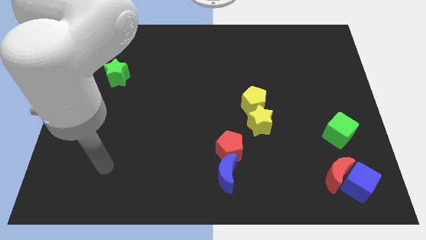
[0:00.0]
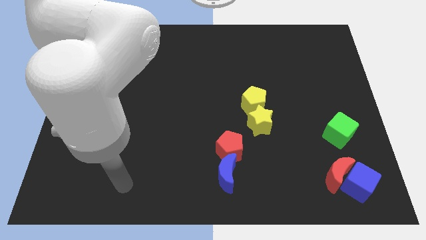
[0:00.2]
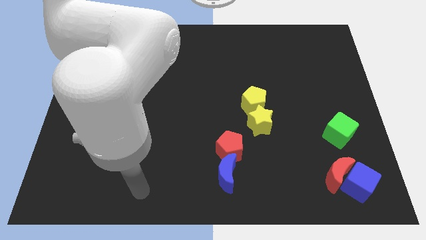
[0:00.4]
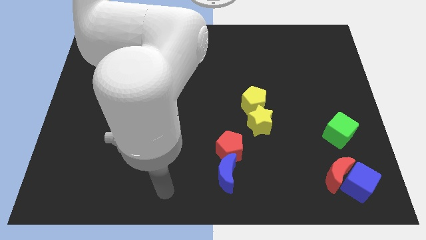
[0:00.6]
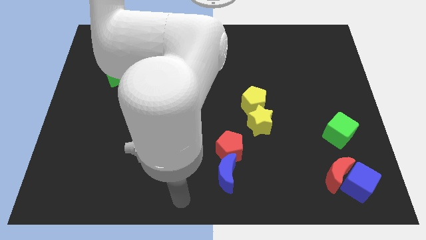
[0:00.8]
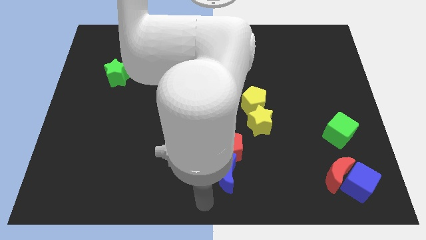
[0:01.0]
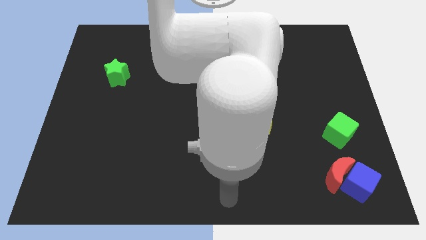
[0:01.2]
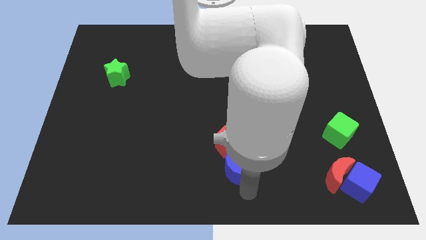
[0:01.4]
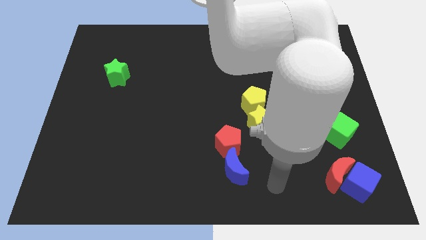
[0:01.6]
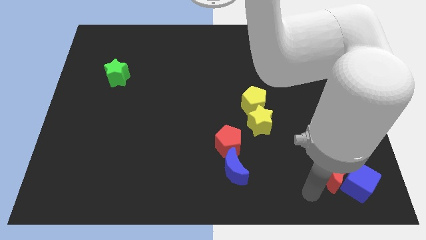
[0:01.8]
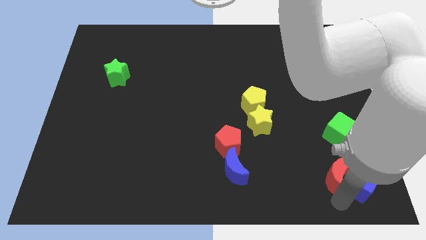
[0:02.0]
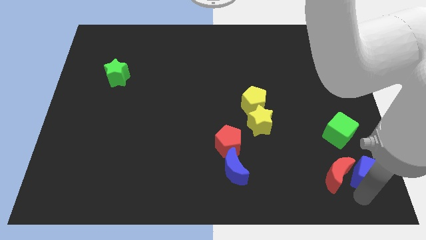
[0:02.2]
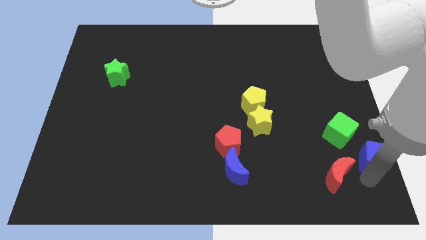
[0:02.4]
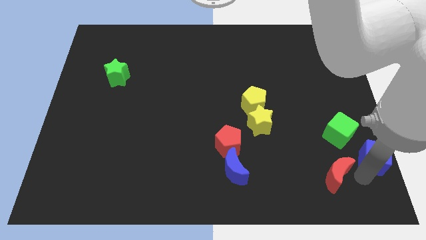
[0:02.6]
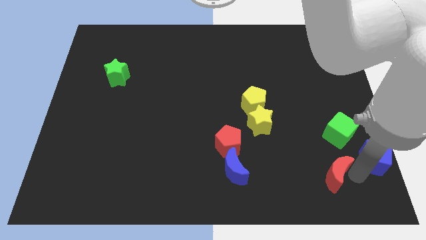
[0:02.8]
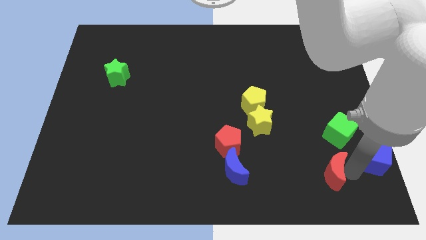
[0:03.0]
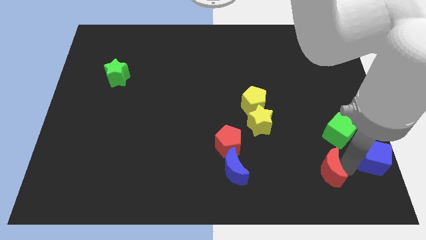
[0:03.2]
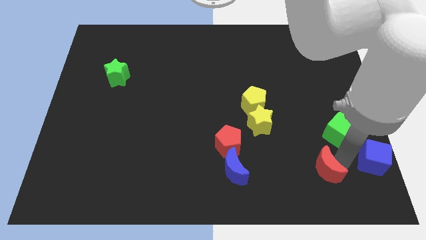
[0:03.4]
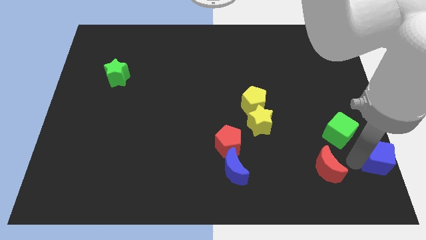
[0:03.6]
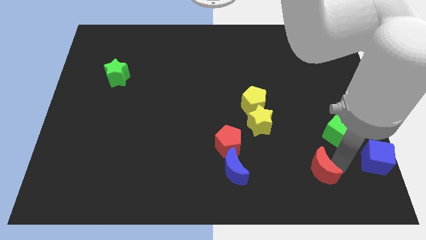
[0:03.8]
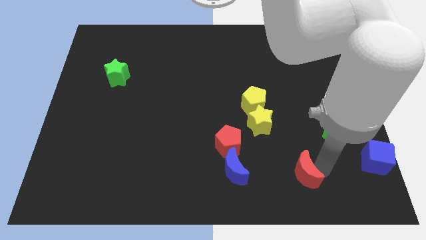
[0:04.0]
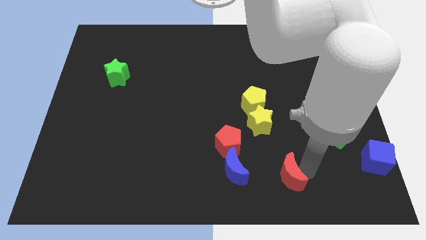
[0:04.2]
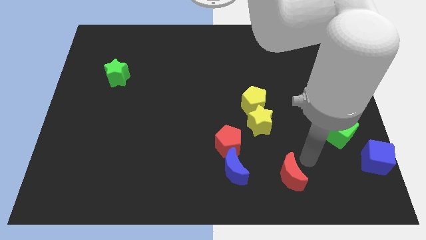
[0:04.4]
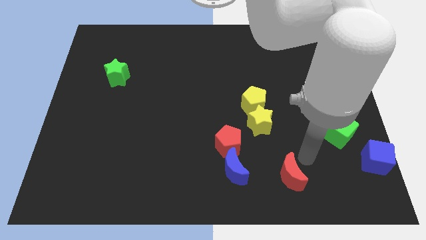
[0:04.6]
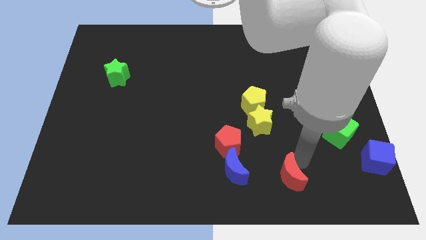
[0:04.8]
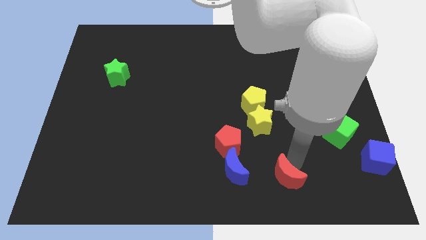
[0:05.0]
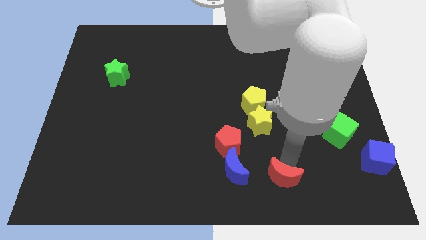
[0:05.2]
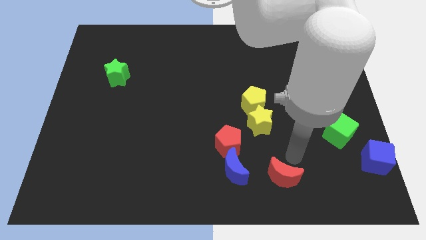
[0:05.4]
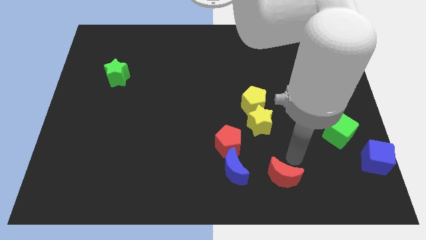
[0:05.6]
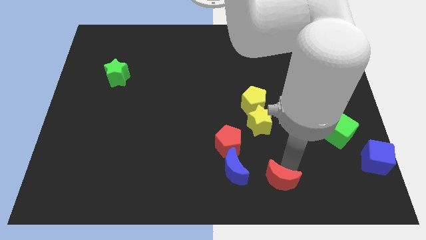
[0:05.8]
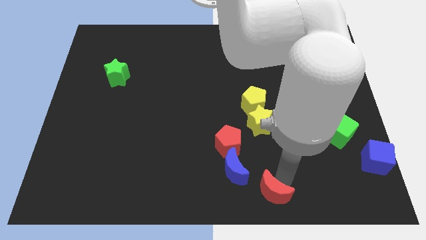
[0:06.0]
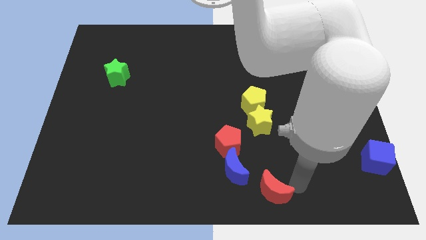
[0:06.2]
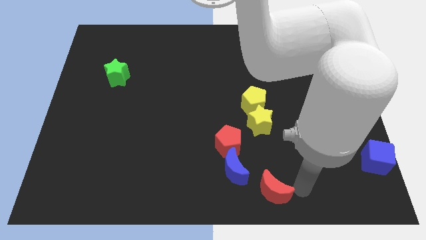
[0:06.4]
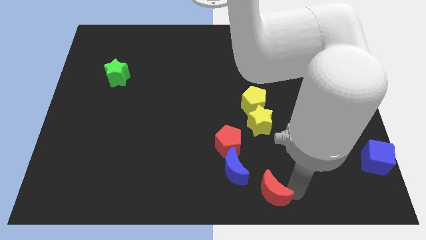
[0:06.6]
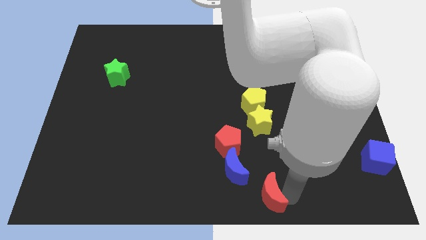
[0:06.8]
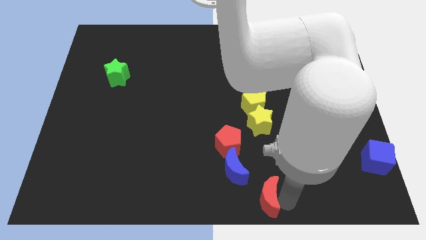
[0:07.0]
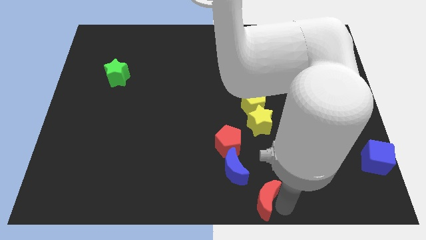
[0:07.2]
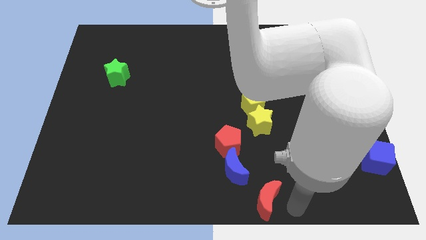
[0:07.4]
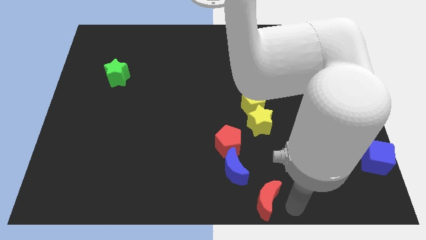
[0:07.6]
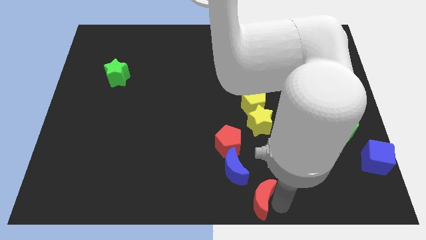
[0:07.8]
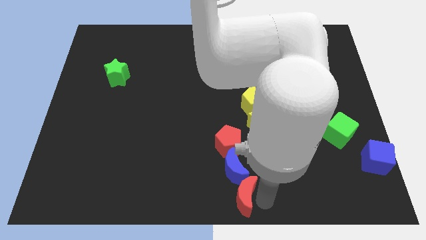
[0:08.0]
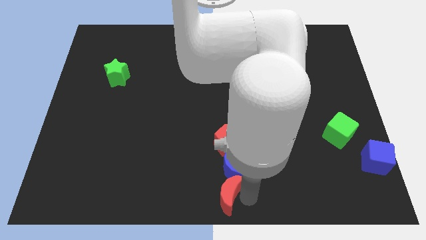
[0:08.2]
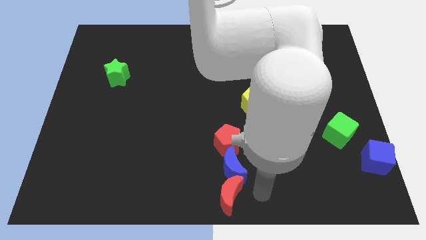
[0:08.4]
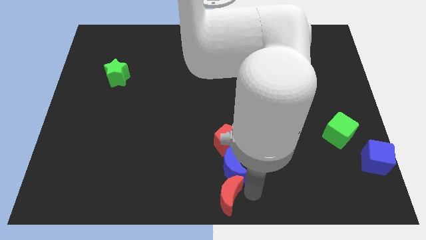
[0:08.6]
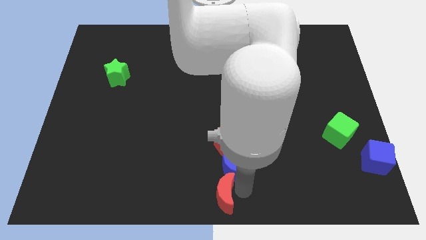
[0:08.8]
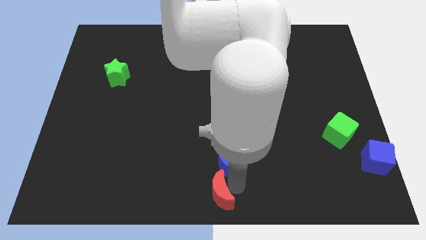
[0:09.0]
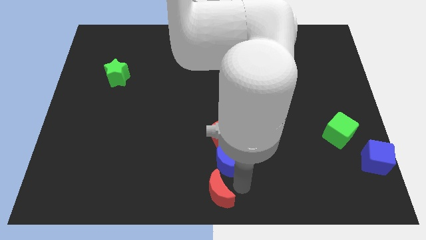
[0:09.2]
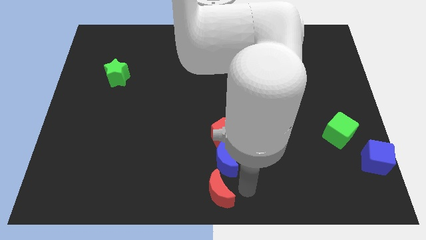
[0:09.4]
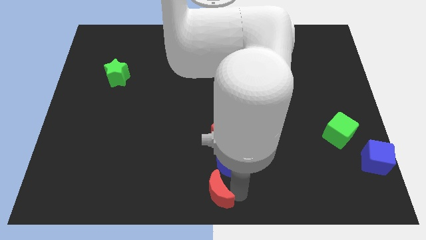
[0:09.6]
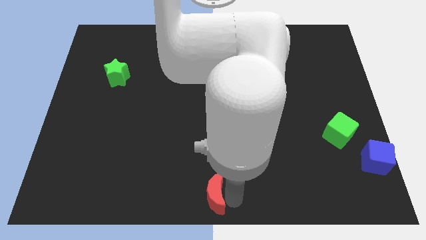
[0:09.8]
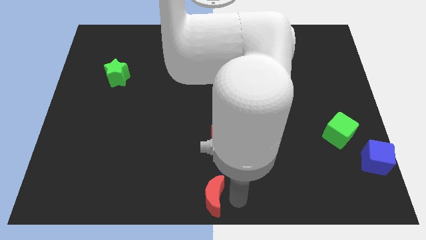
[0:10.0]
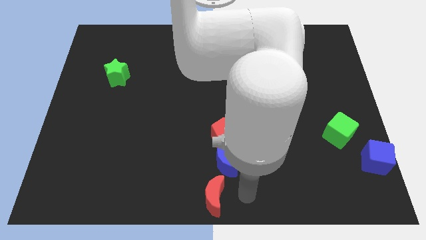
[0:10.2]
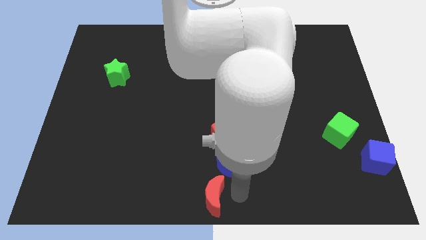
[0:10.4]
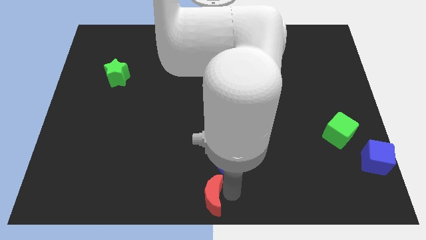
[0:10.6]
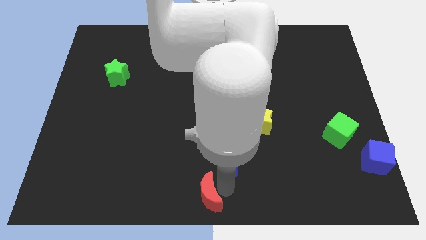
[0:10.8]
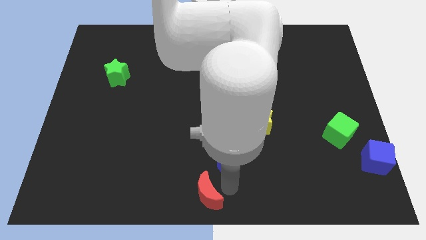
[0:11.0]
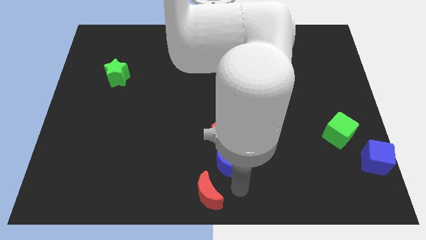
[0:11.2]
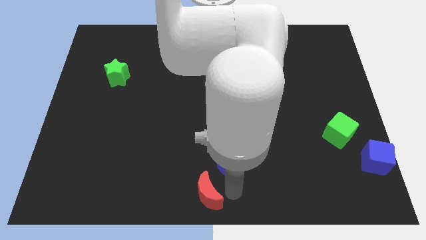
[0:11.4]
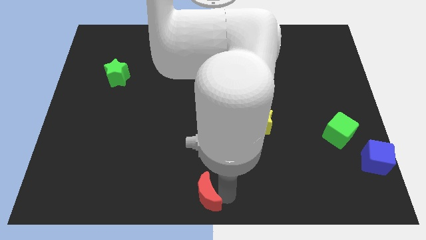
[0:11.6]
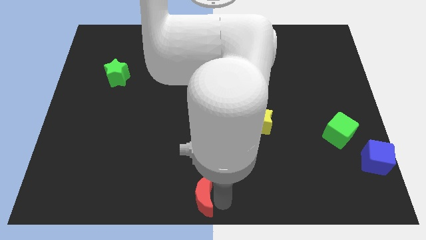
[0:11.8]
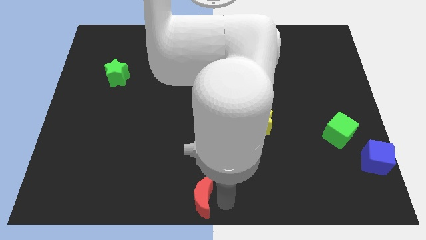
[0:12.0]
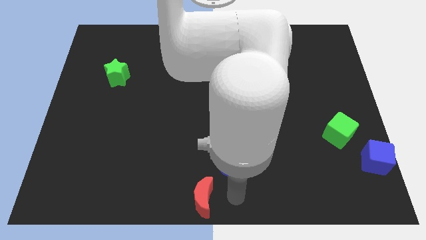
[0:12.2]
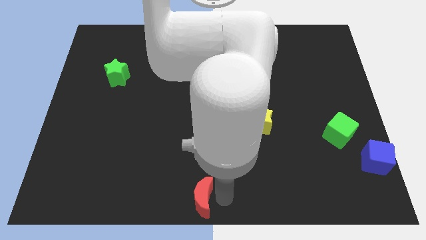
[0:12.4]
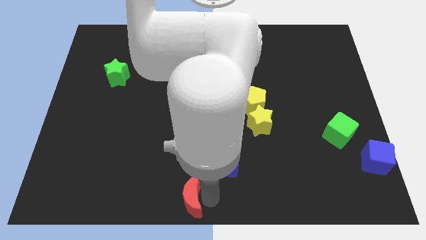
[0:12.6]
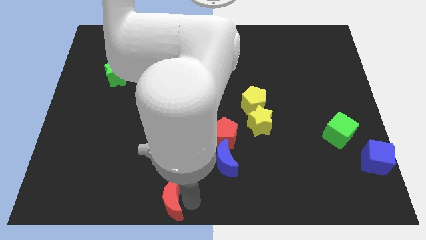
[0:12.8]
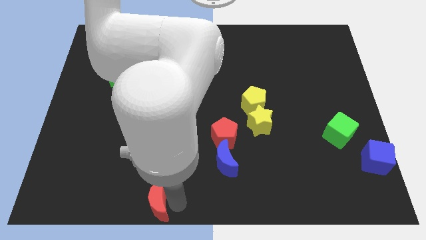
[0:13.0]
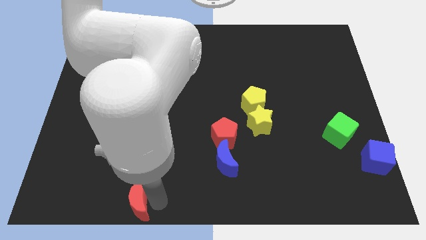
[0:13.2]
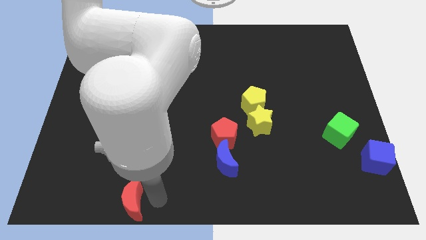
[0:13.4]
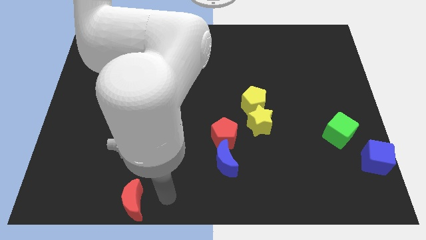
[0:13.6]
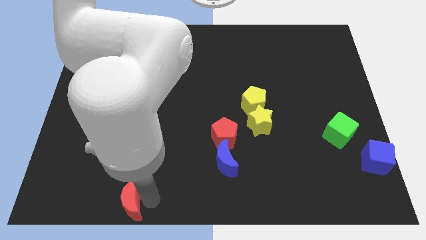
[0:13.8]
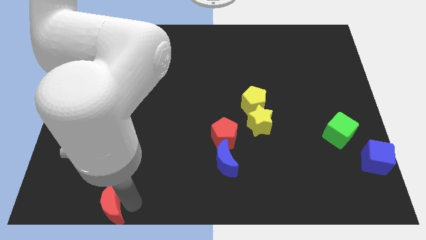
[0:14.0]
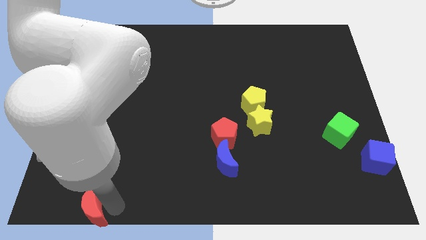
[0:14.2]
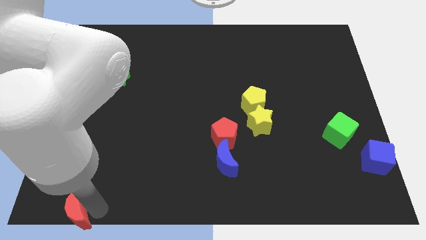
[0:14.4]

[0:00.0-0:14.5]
put the red moon to the bottom left corner

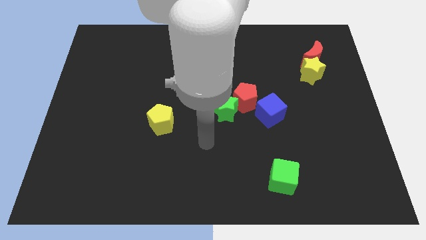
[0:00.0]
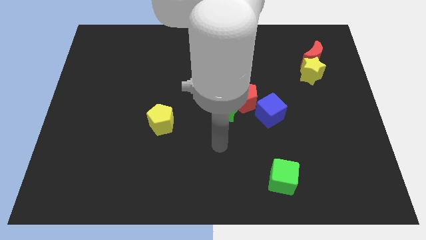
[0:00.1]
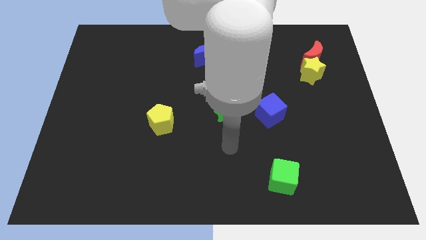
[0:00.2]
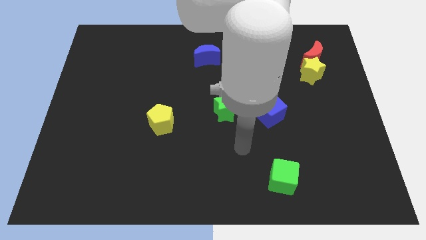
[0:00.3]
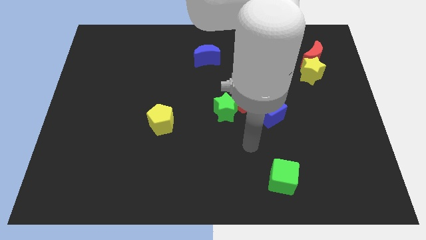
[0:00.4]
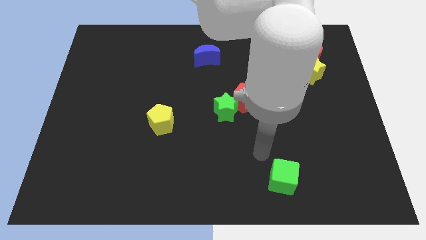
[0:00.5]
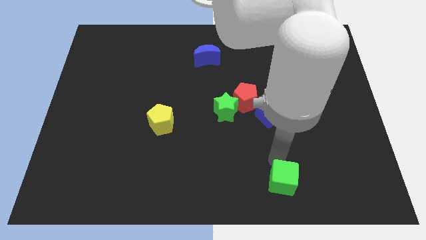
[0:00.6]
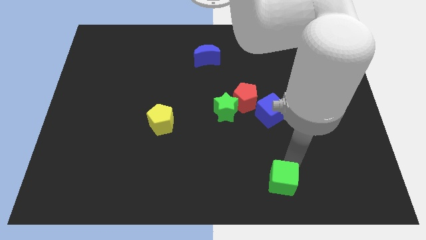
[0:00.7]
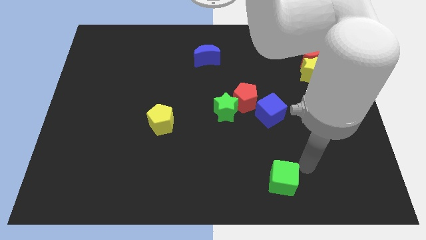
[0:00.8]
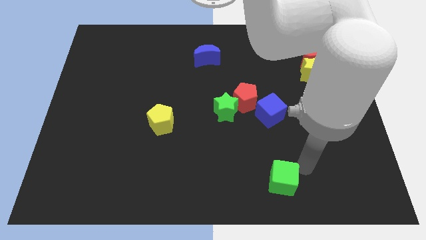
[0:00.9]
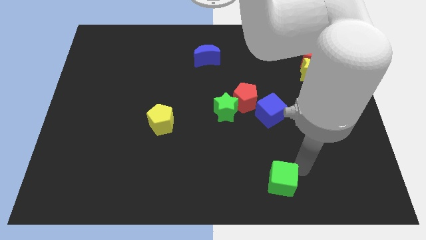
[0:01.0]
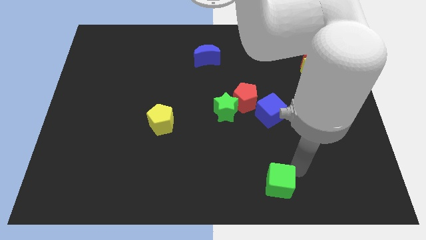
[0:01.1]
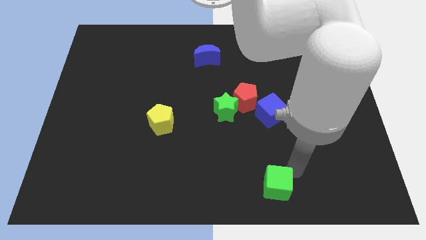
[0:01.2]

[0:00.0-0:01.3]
push the green cube to the bottom side
